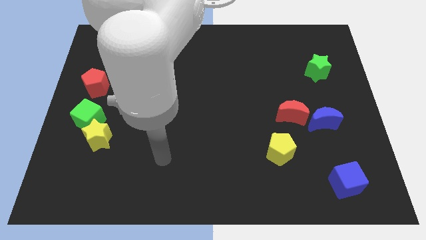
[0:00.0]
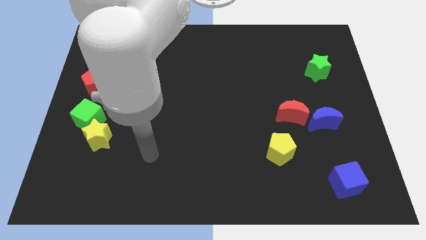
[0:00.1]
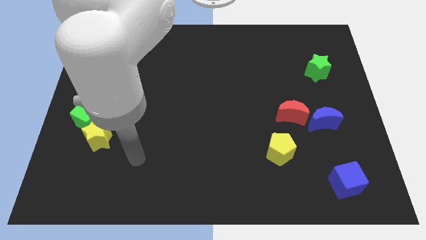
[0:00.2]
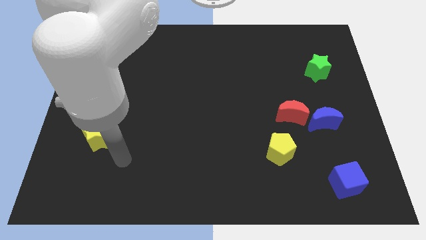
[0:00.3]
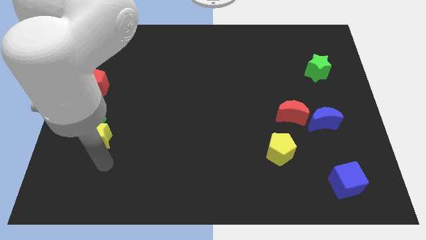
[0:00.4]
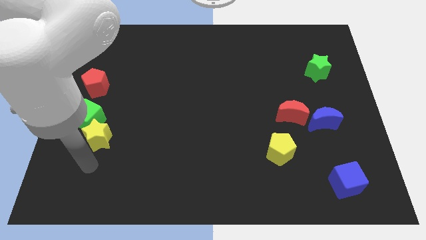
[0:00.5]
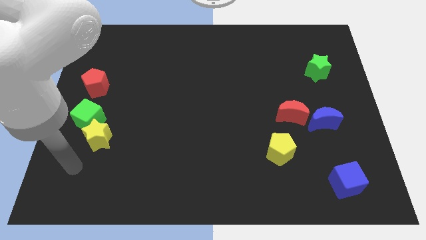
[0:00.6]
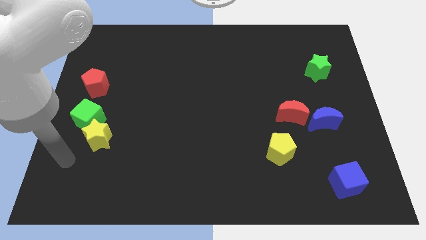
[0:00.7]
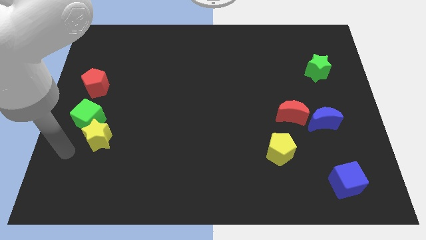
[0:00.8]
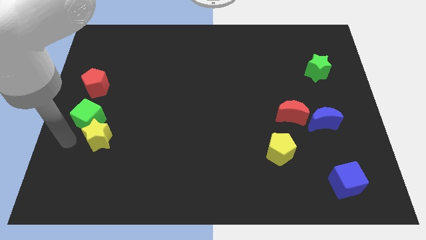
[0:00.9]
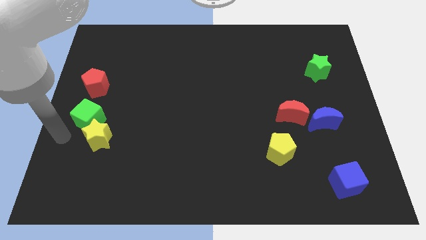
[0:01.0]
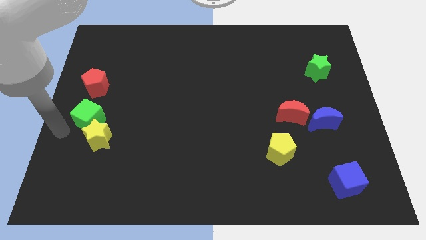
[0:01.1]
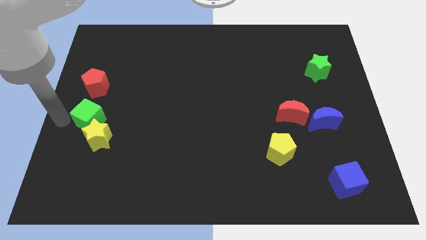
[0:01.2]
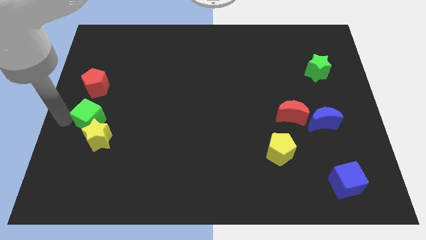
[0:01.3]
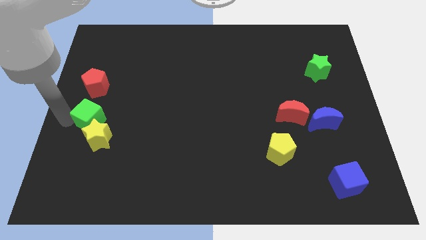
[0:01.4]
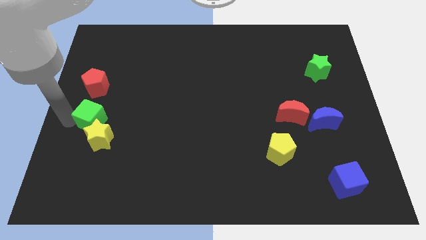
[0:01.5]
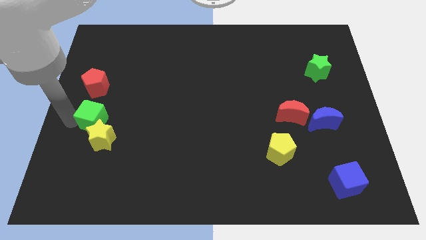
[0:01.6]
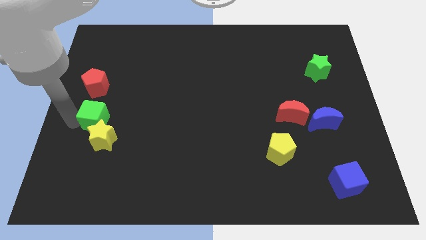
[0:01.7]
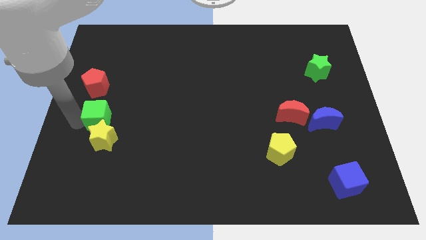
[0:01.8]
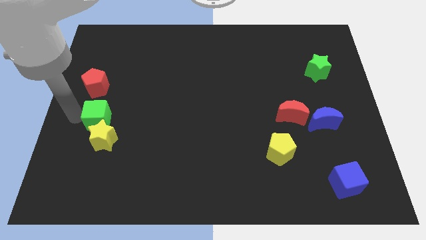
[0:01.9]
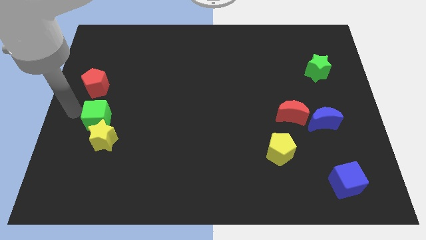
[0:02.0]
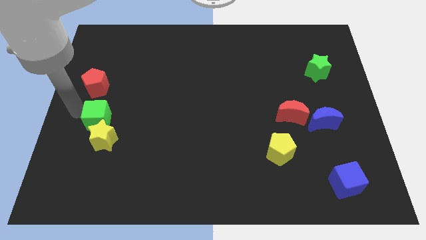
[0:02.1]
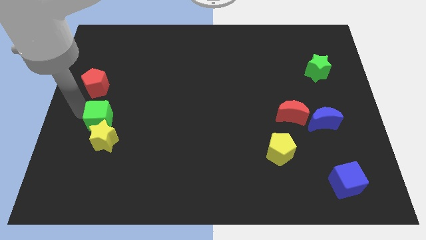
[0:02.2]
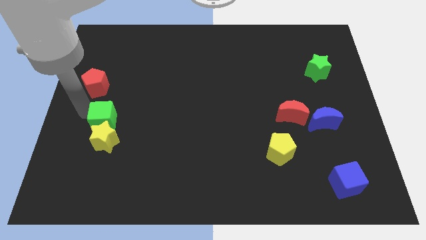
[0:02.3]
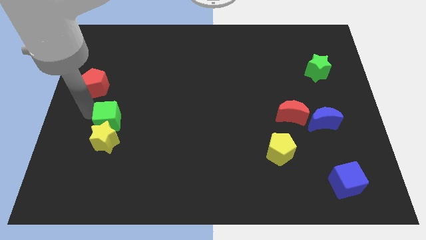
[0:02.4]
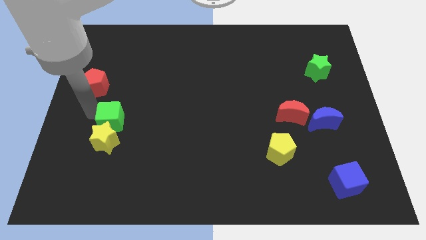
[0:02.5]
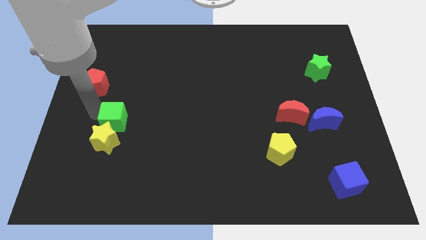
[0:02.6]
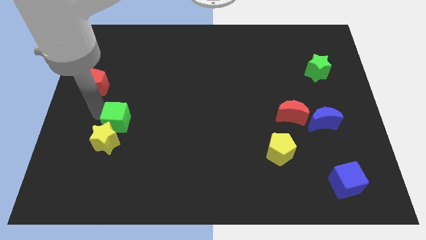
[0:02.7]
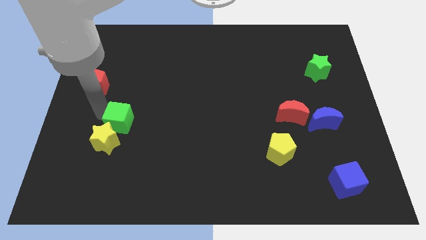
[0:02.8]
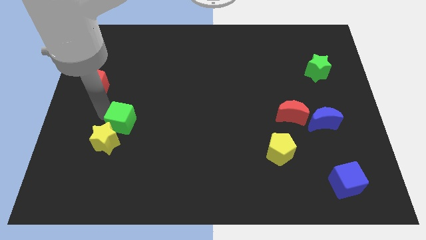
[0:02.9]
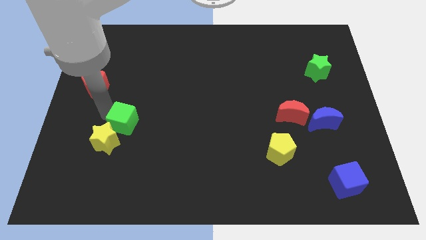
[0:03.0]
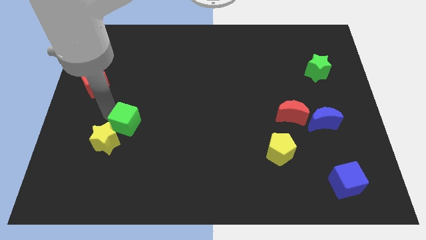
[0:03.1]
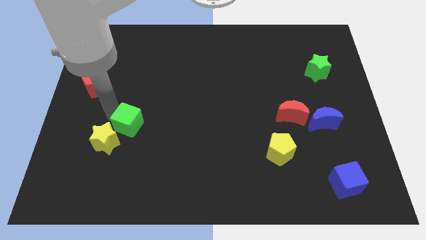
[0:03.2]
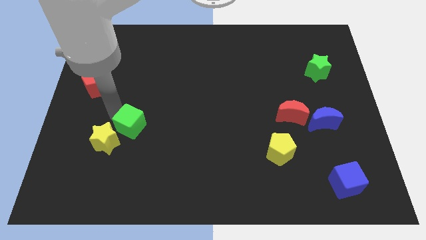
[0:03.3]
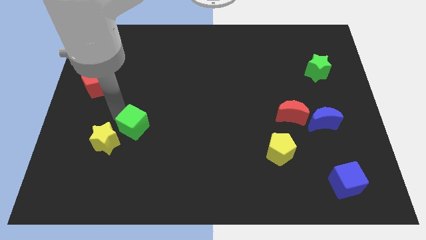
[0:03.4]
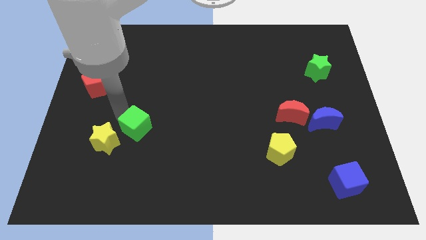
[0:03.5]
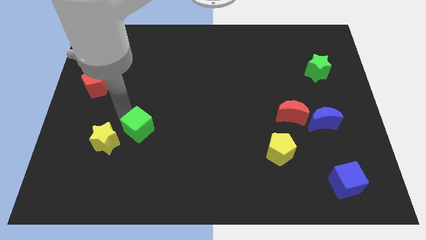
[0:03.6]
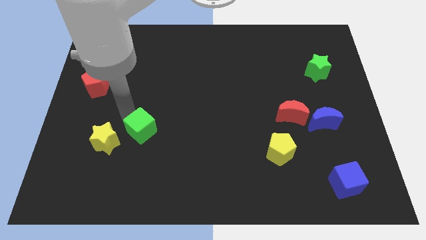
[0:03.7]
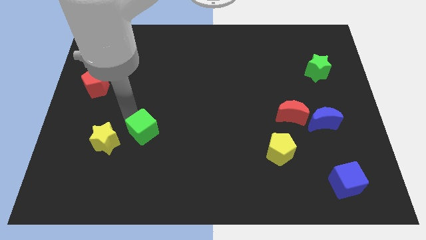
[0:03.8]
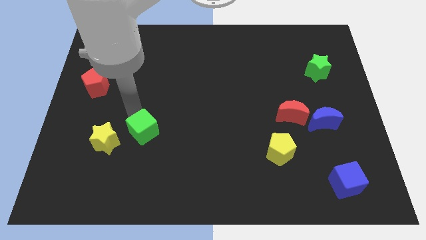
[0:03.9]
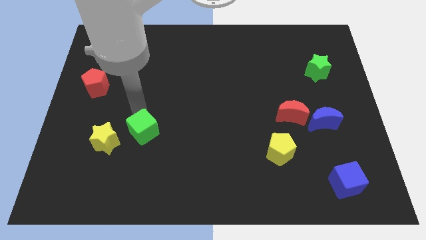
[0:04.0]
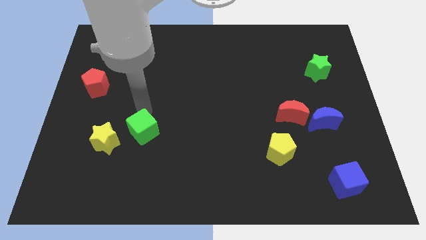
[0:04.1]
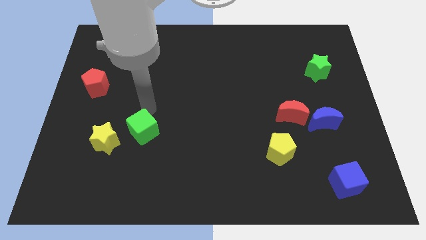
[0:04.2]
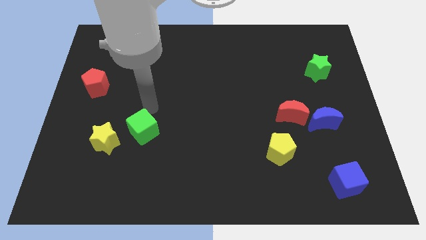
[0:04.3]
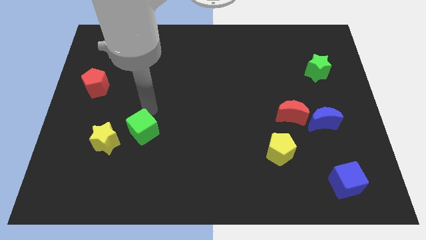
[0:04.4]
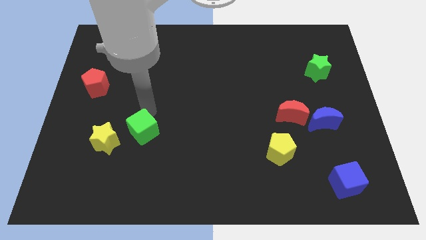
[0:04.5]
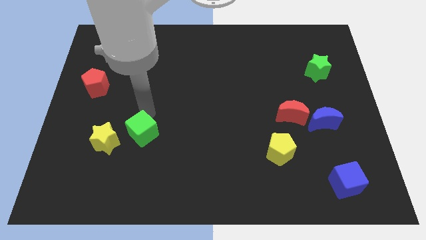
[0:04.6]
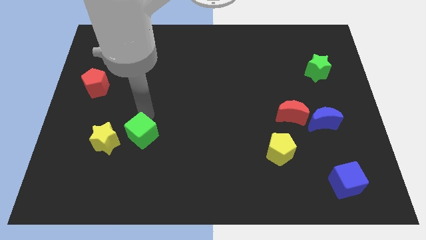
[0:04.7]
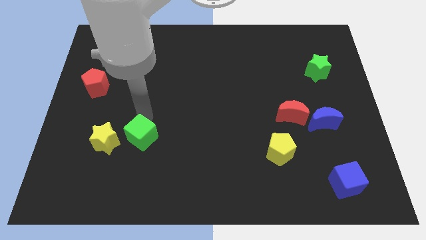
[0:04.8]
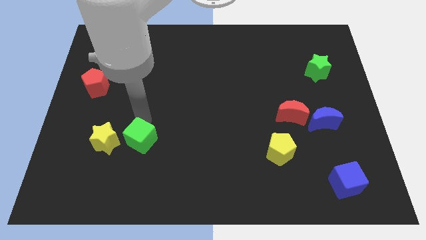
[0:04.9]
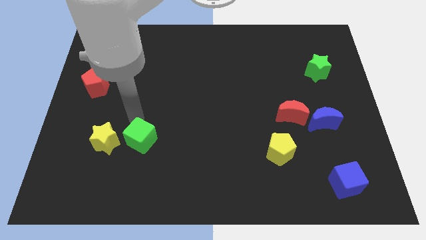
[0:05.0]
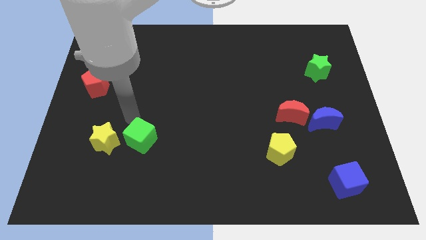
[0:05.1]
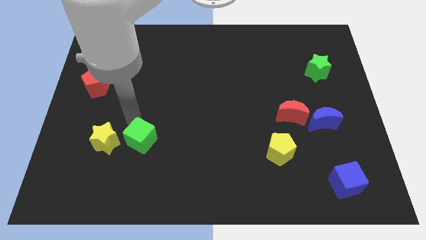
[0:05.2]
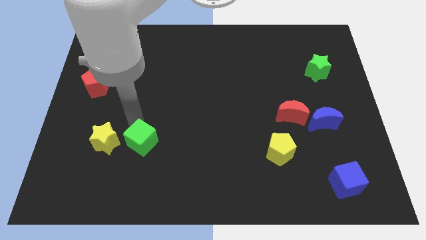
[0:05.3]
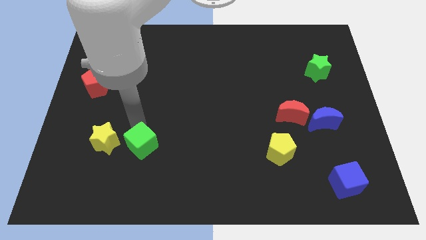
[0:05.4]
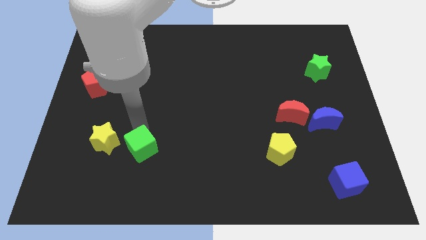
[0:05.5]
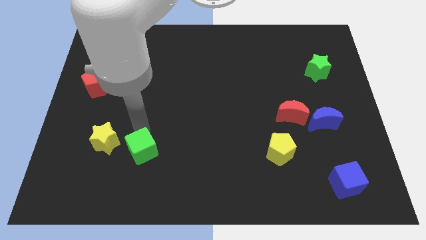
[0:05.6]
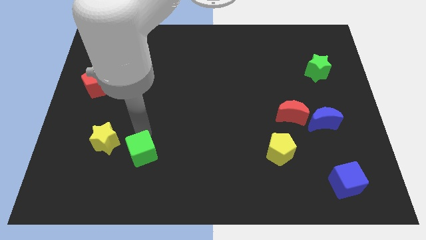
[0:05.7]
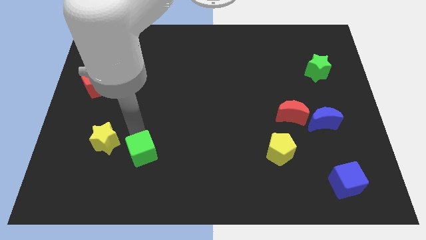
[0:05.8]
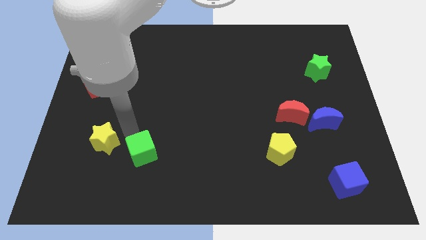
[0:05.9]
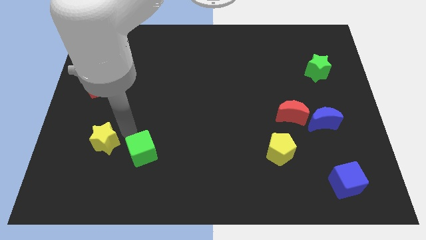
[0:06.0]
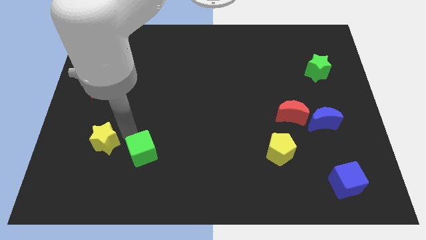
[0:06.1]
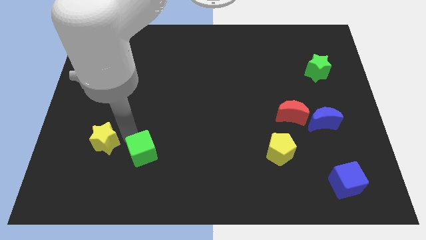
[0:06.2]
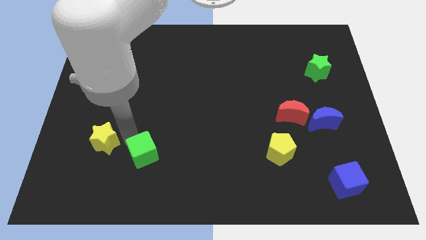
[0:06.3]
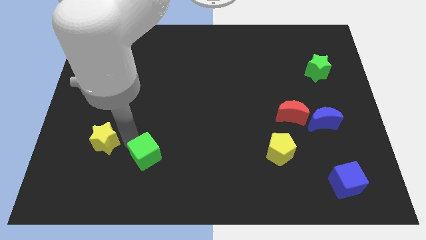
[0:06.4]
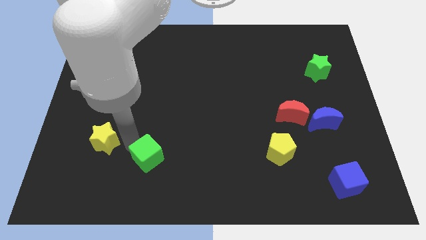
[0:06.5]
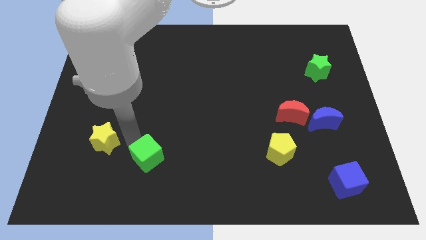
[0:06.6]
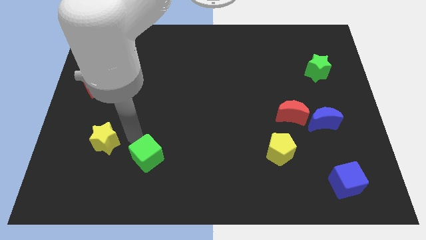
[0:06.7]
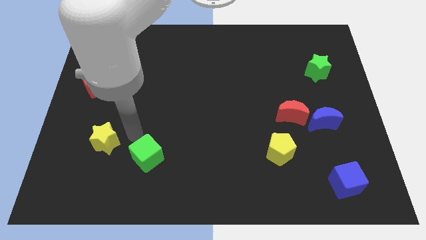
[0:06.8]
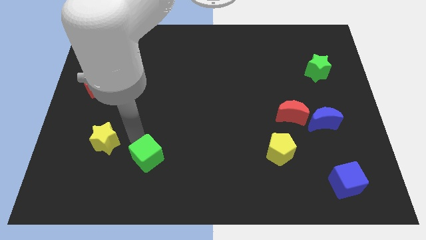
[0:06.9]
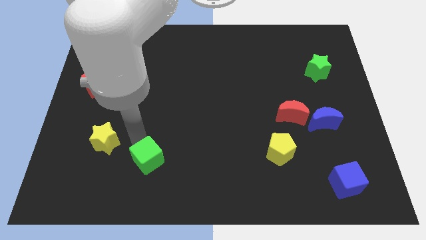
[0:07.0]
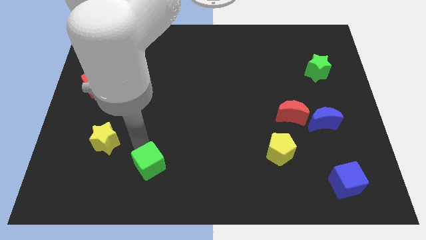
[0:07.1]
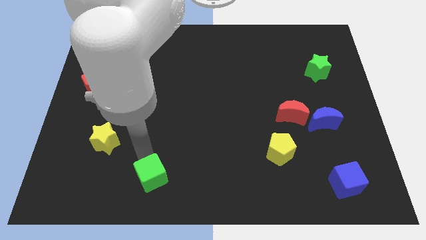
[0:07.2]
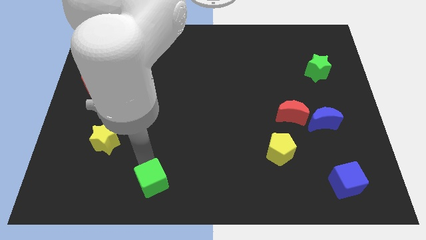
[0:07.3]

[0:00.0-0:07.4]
move the green cube to the bottom side
